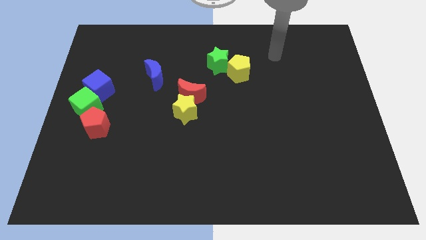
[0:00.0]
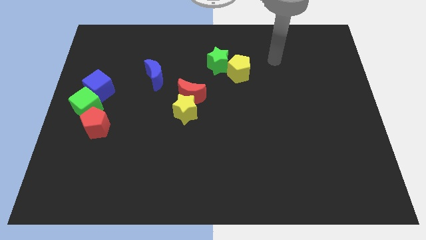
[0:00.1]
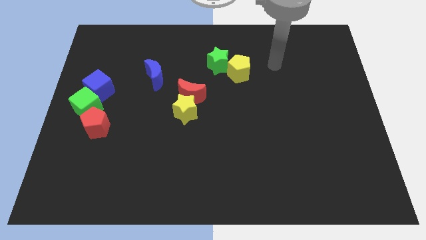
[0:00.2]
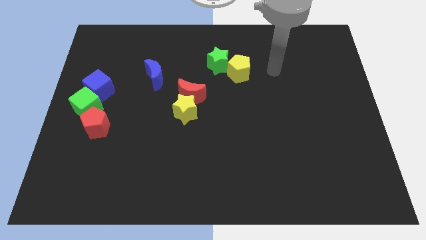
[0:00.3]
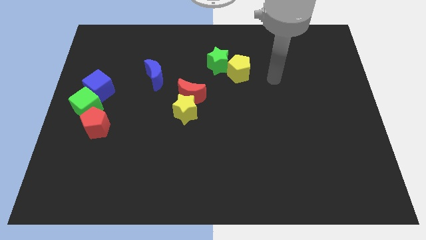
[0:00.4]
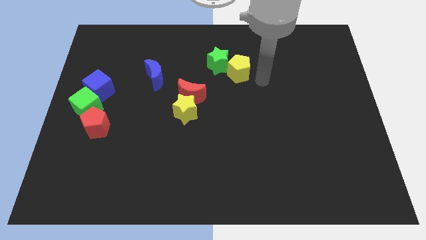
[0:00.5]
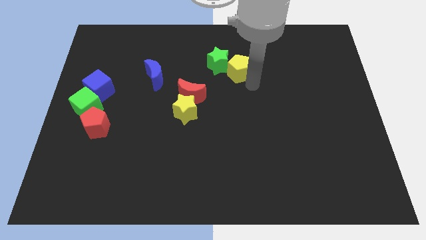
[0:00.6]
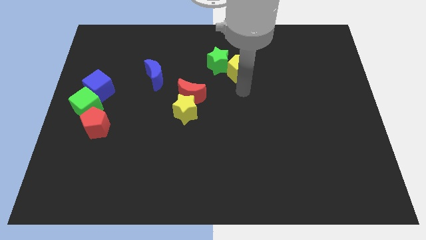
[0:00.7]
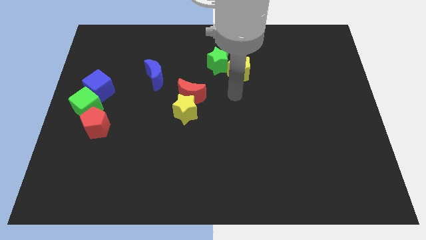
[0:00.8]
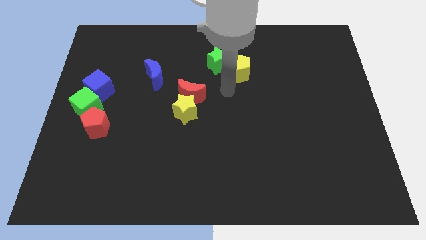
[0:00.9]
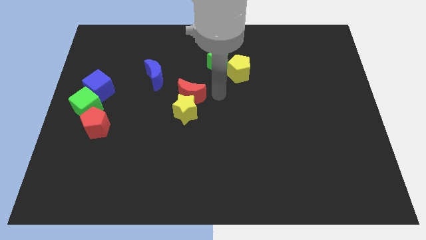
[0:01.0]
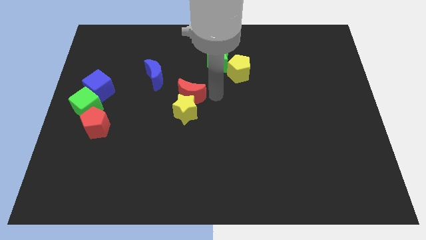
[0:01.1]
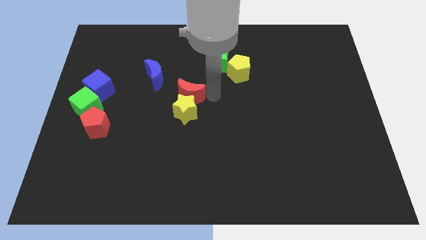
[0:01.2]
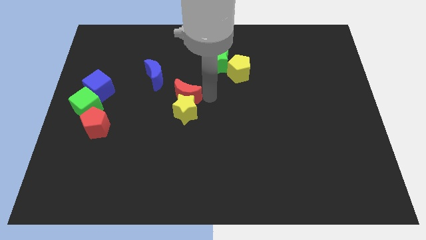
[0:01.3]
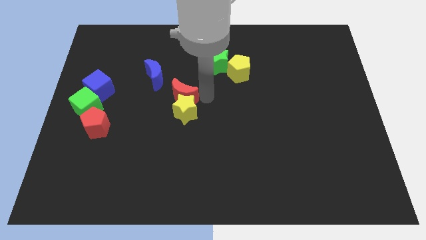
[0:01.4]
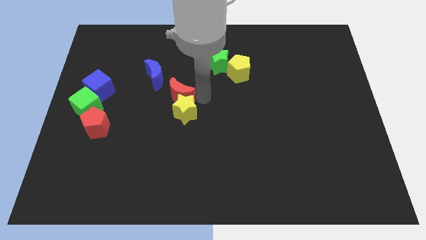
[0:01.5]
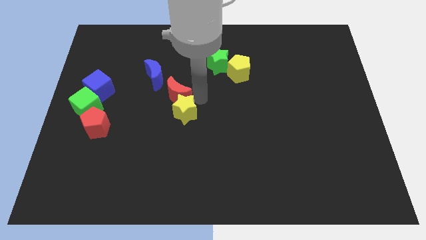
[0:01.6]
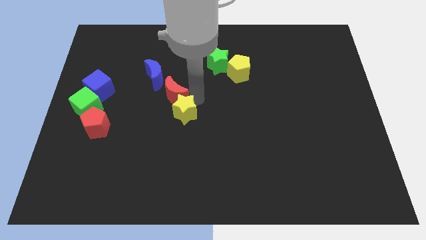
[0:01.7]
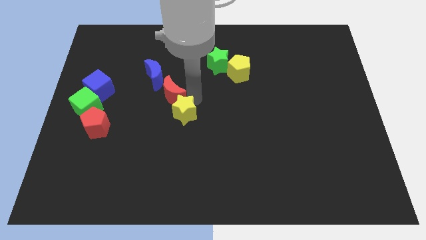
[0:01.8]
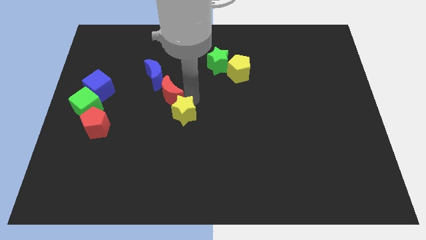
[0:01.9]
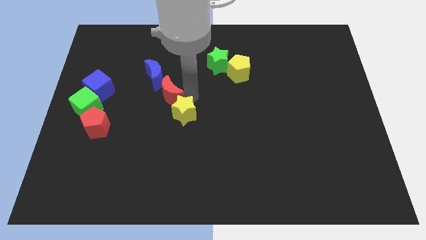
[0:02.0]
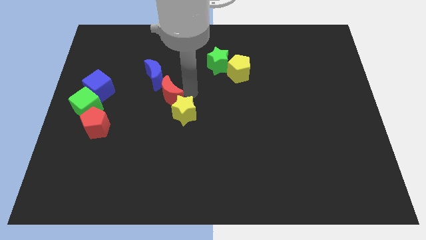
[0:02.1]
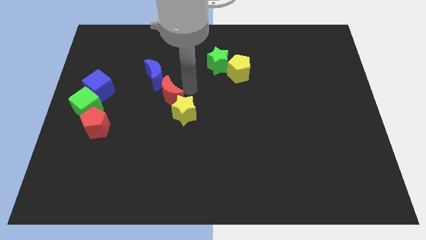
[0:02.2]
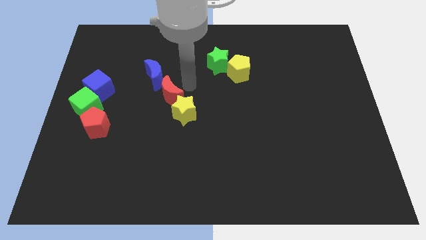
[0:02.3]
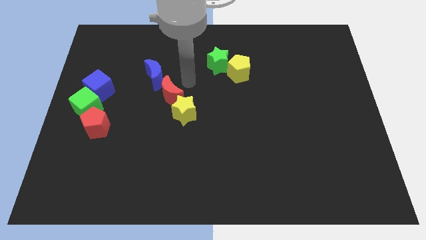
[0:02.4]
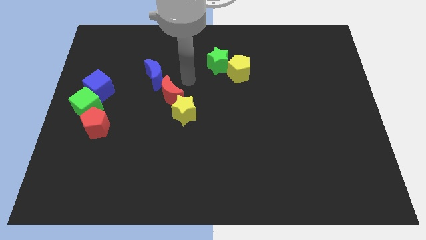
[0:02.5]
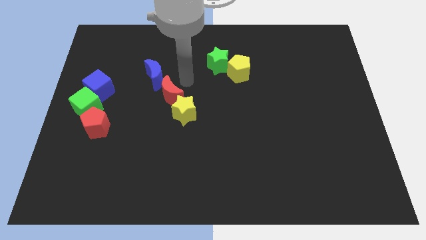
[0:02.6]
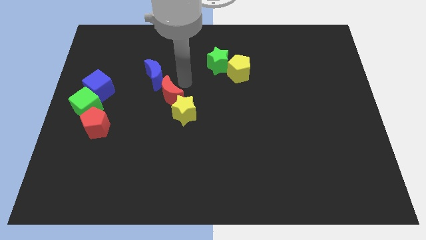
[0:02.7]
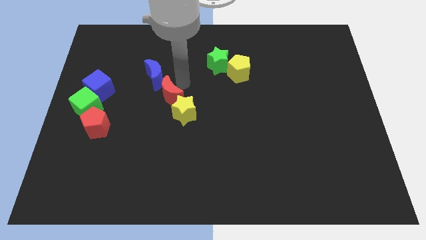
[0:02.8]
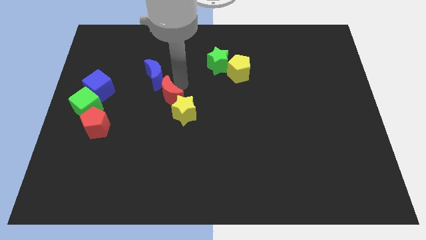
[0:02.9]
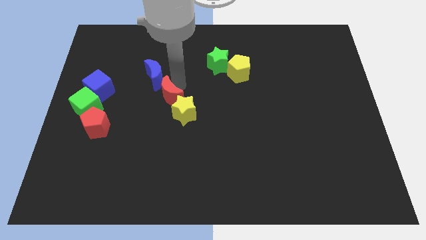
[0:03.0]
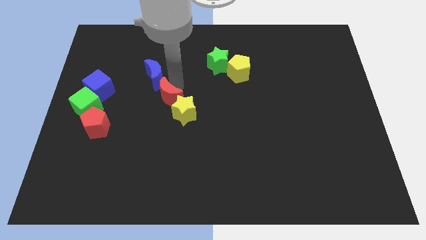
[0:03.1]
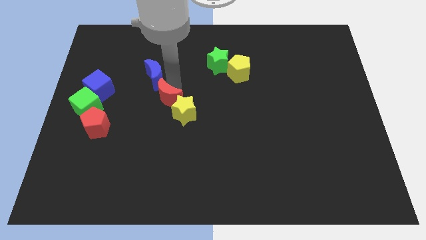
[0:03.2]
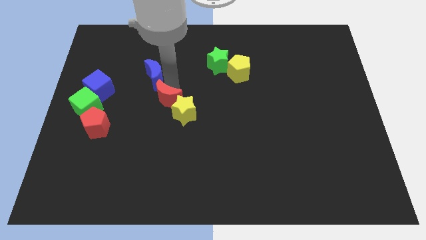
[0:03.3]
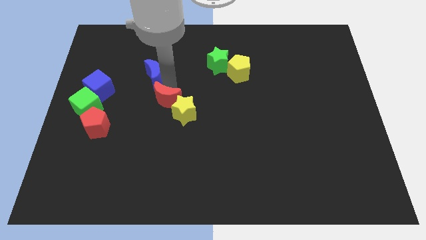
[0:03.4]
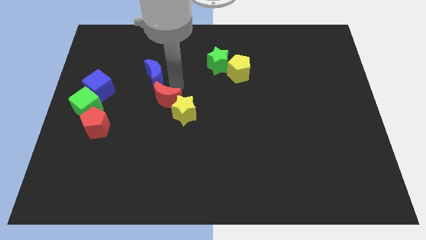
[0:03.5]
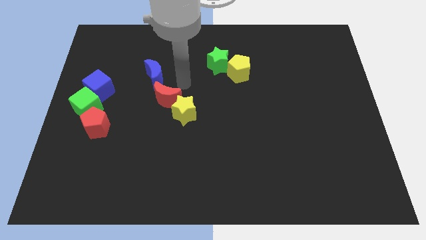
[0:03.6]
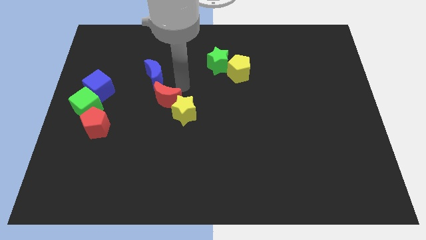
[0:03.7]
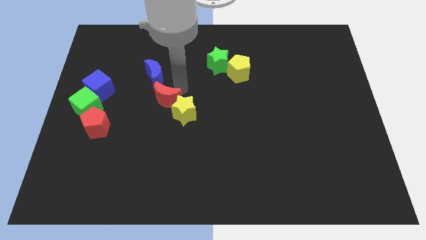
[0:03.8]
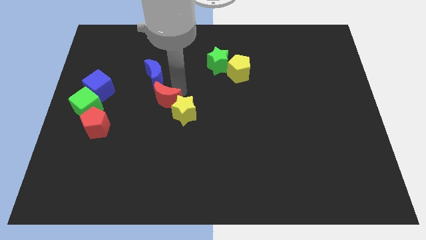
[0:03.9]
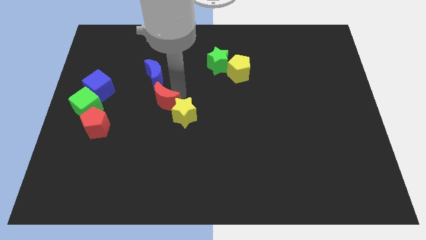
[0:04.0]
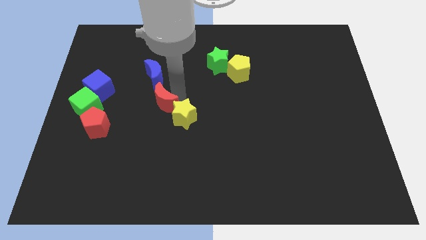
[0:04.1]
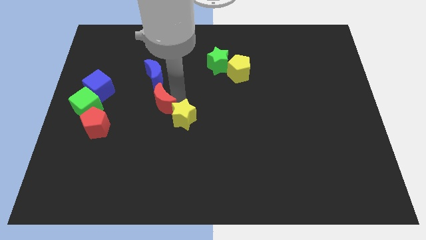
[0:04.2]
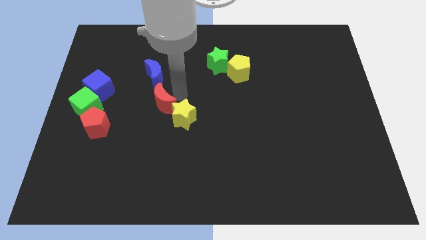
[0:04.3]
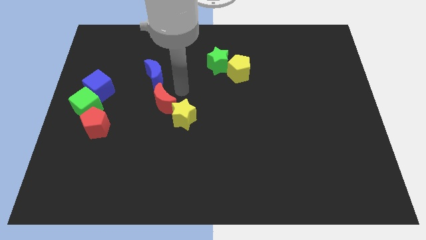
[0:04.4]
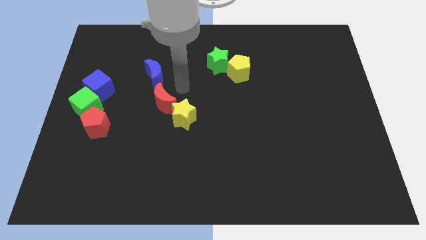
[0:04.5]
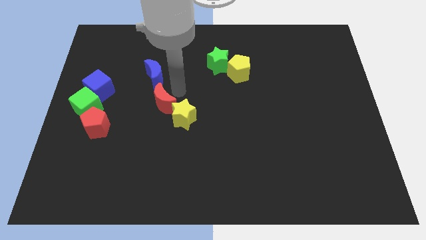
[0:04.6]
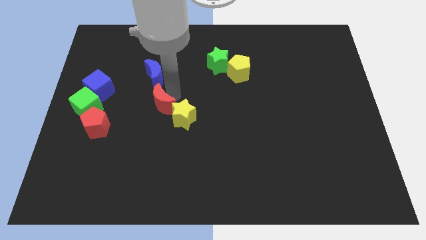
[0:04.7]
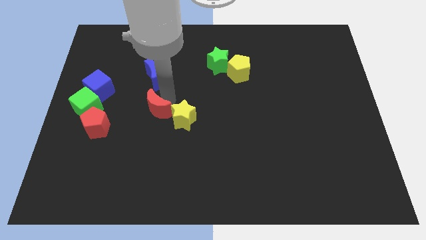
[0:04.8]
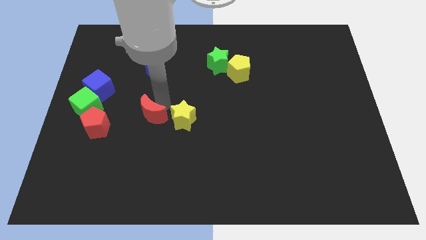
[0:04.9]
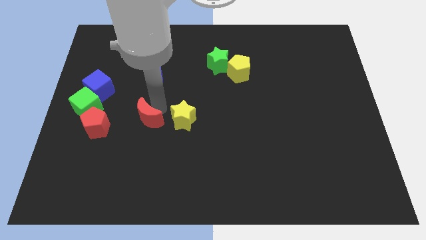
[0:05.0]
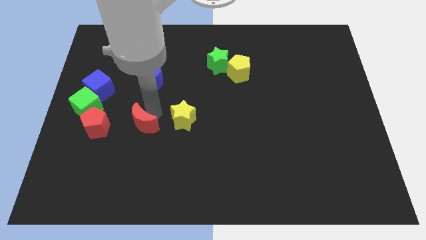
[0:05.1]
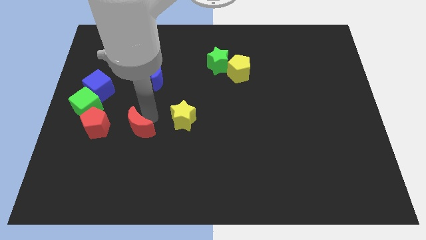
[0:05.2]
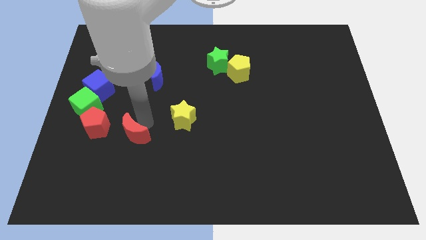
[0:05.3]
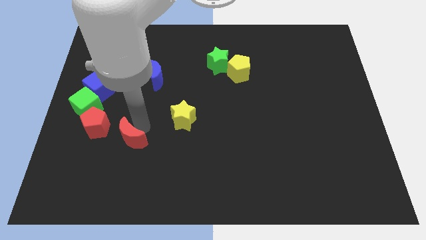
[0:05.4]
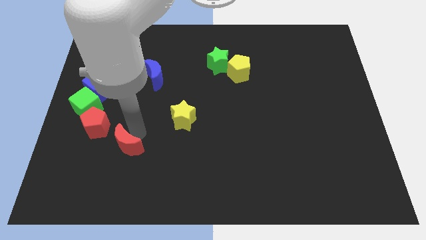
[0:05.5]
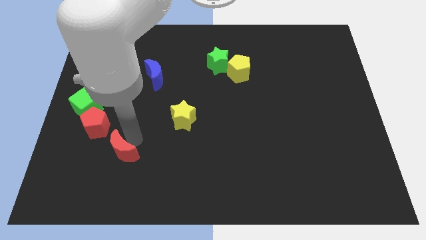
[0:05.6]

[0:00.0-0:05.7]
slide the red moon down and to the left

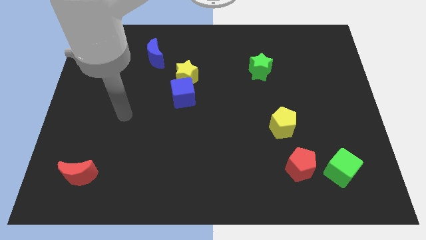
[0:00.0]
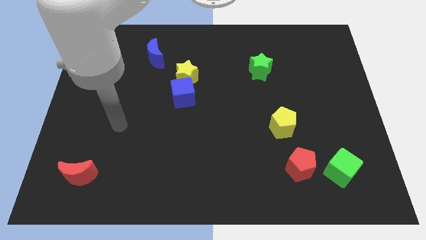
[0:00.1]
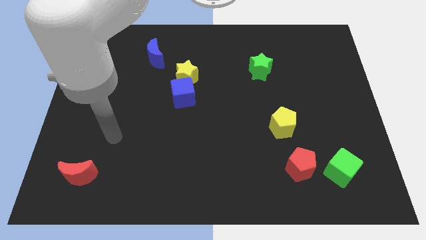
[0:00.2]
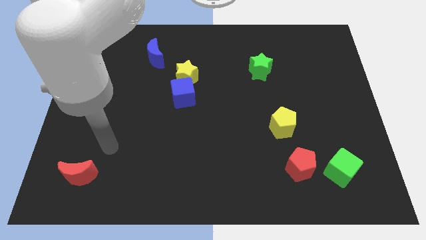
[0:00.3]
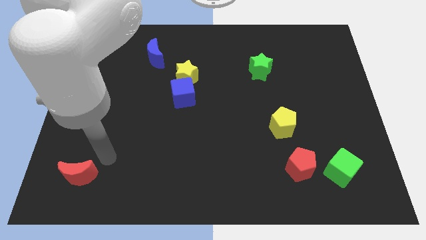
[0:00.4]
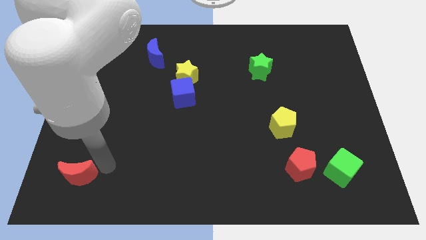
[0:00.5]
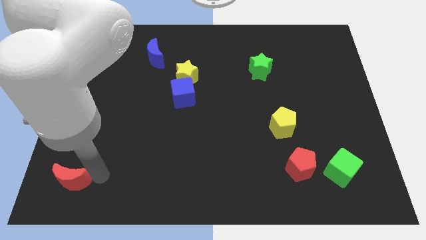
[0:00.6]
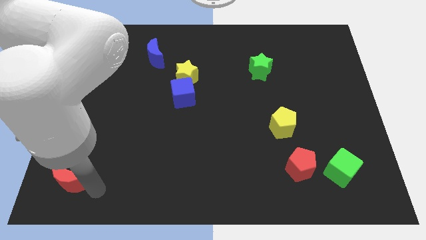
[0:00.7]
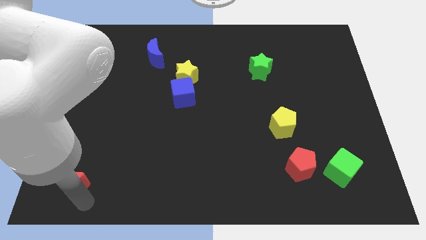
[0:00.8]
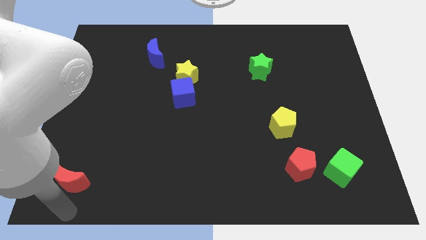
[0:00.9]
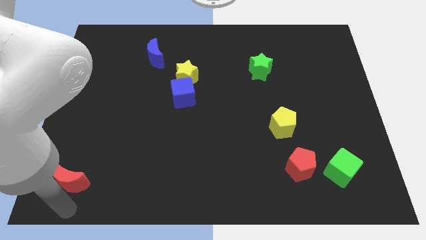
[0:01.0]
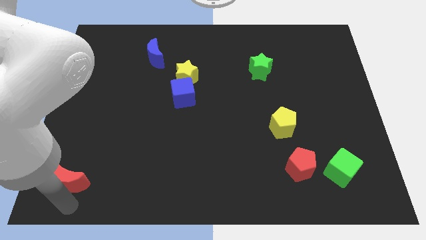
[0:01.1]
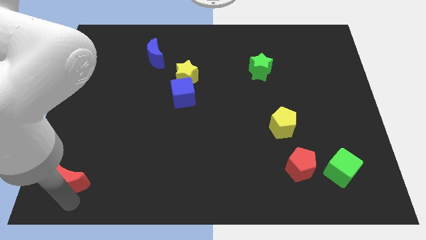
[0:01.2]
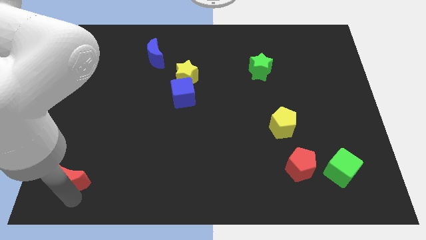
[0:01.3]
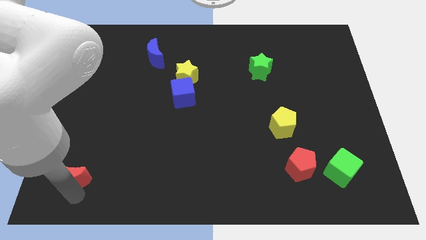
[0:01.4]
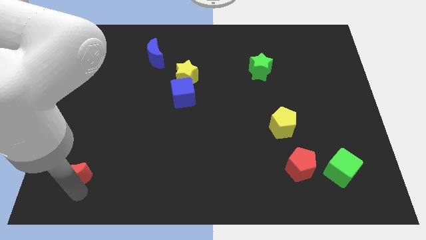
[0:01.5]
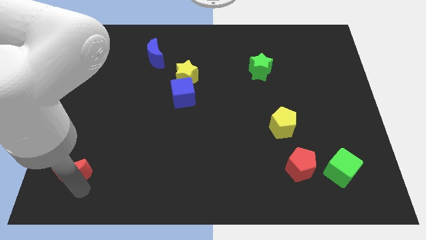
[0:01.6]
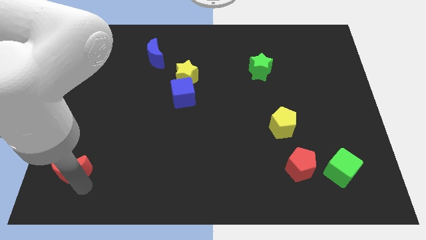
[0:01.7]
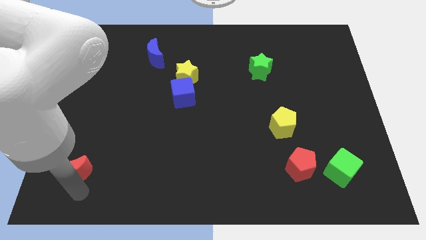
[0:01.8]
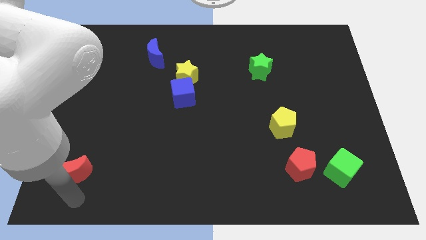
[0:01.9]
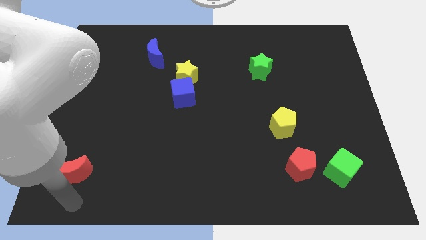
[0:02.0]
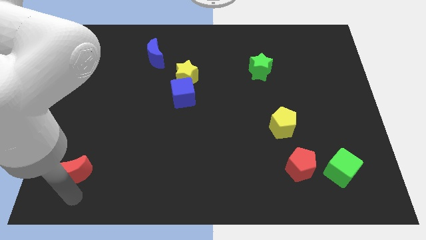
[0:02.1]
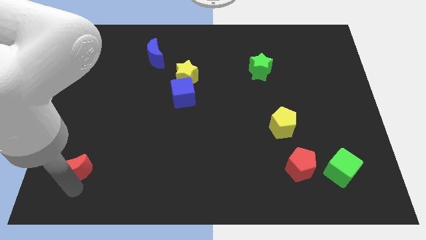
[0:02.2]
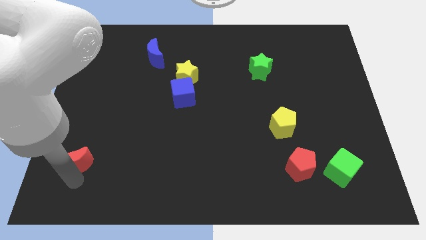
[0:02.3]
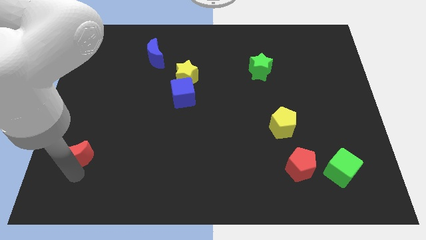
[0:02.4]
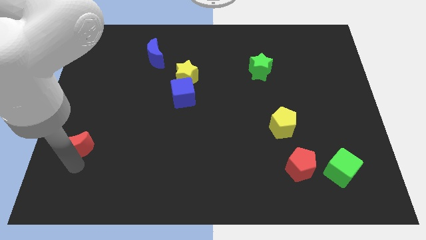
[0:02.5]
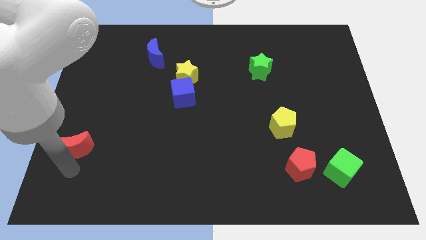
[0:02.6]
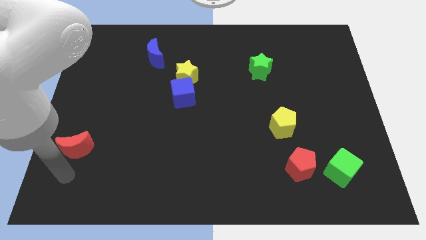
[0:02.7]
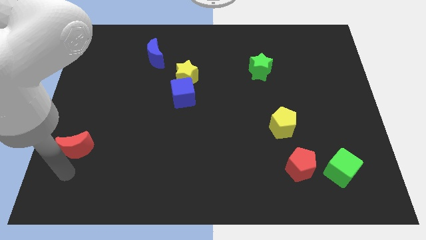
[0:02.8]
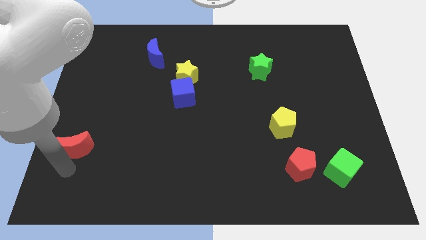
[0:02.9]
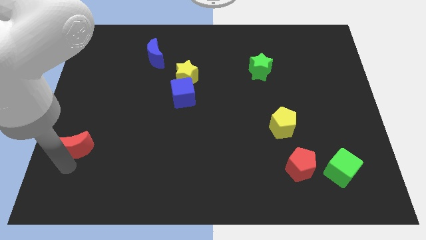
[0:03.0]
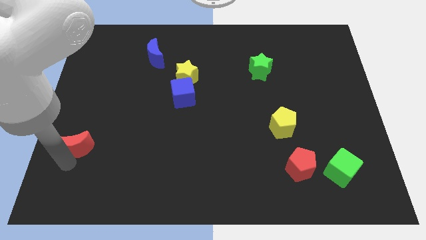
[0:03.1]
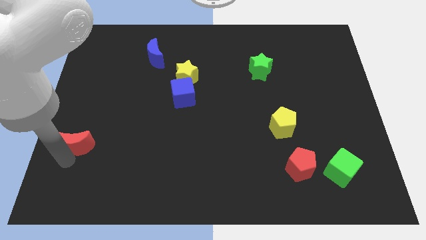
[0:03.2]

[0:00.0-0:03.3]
slightly slide the red moon up
